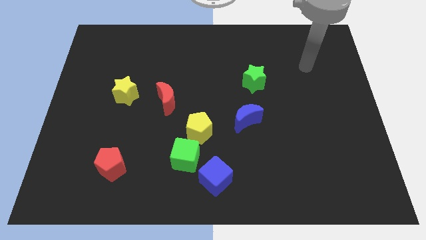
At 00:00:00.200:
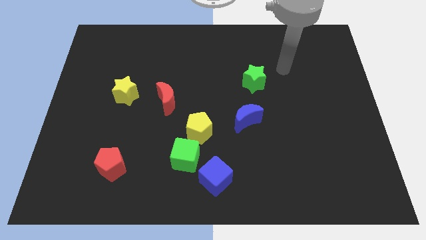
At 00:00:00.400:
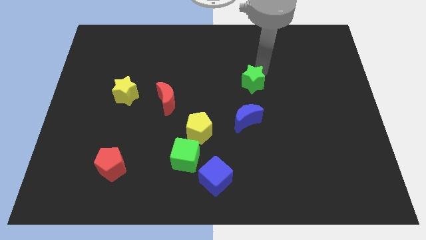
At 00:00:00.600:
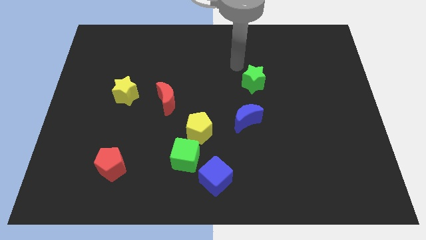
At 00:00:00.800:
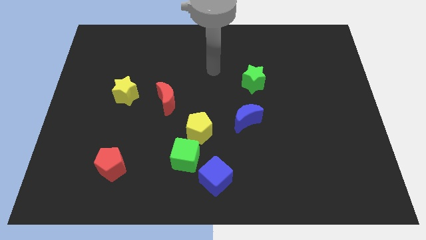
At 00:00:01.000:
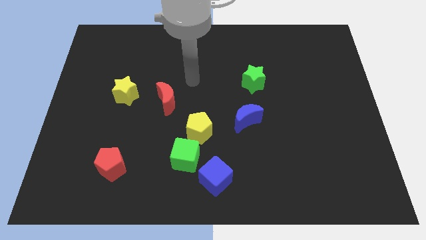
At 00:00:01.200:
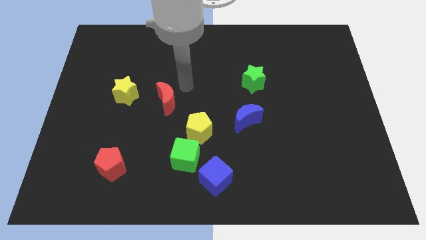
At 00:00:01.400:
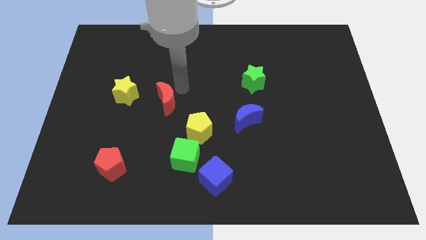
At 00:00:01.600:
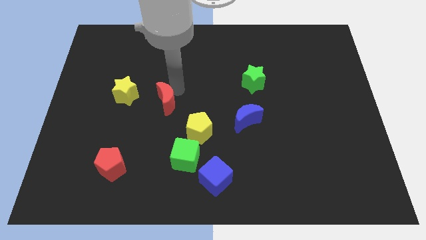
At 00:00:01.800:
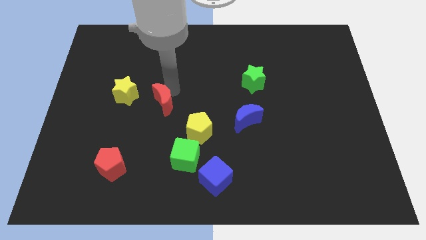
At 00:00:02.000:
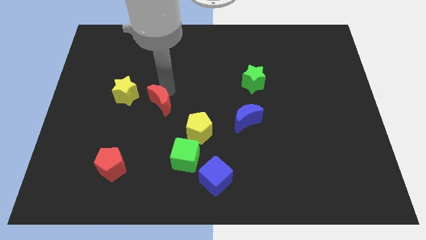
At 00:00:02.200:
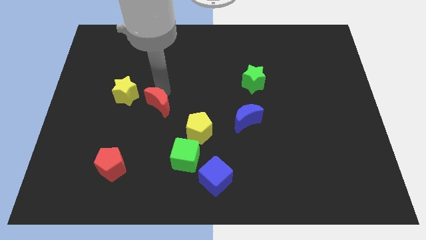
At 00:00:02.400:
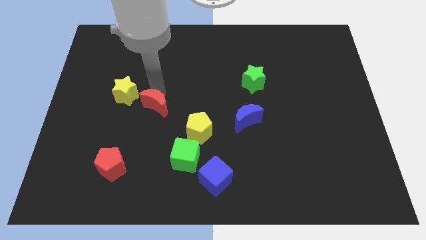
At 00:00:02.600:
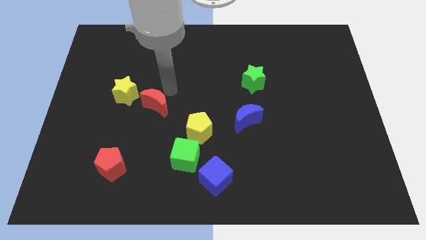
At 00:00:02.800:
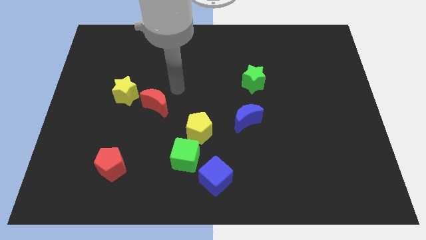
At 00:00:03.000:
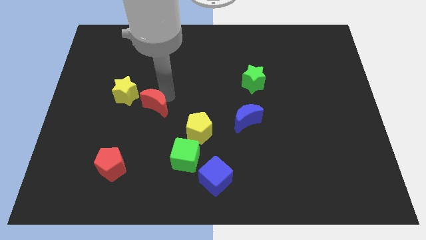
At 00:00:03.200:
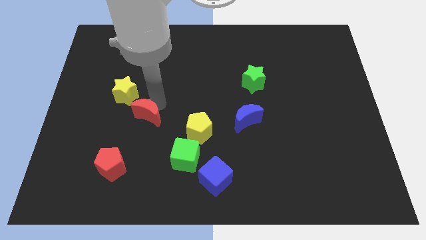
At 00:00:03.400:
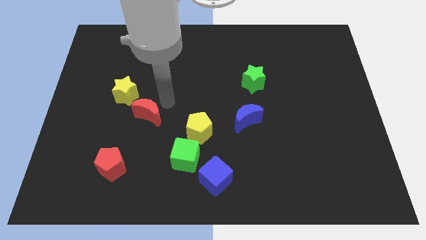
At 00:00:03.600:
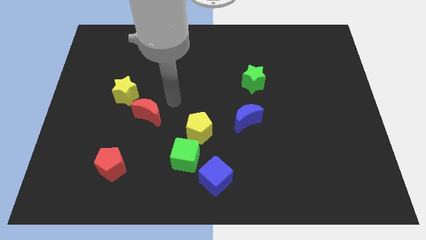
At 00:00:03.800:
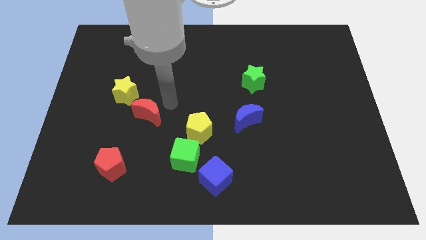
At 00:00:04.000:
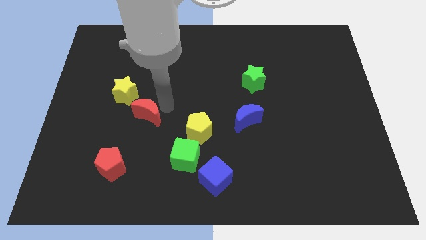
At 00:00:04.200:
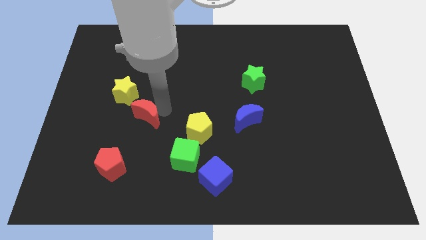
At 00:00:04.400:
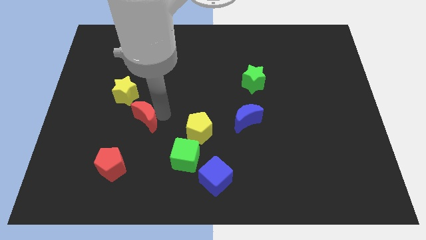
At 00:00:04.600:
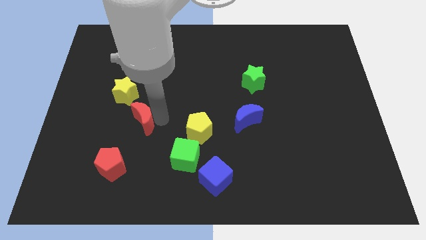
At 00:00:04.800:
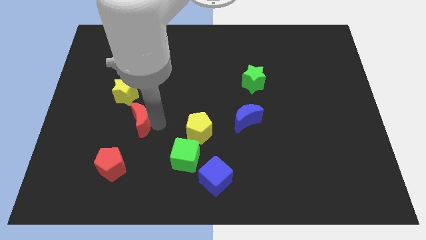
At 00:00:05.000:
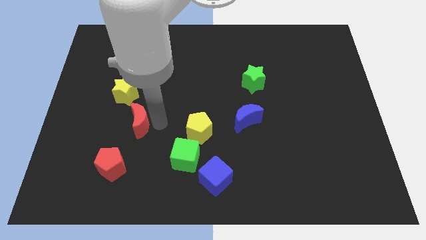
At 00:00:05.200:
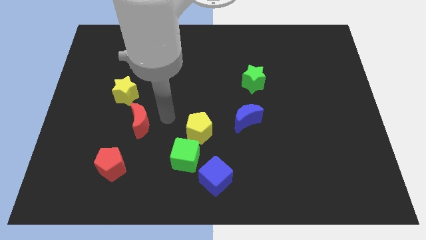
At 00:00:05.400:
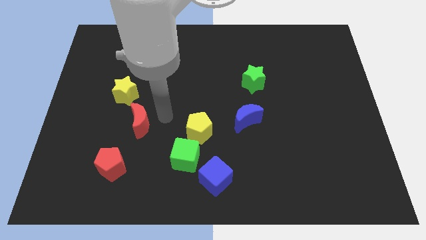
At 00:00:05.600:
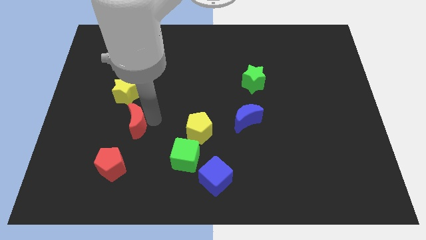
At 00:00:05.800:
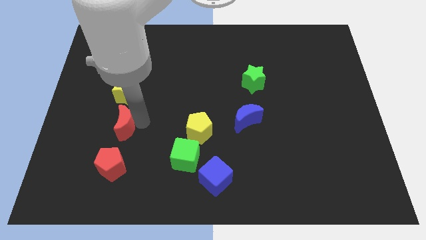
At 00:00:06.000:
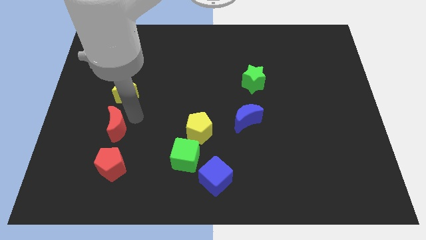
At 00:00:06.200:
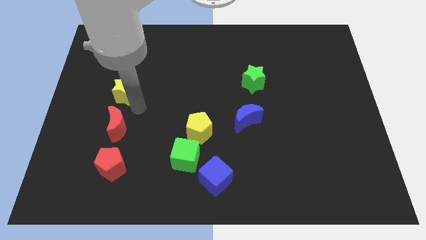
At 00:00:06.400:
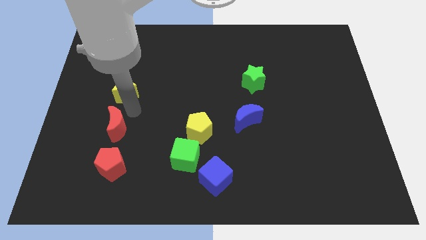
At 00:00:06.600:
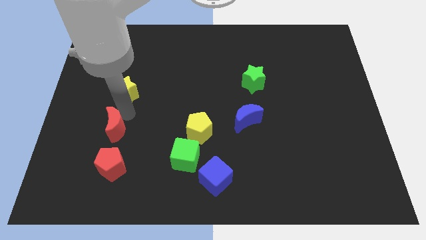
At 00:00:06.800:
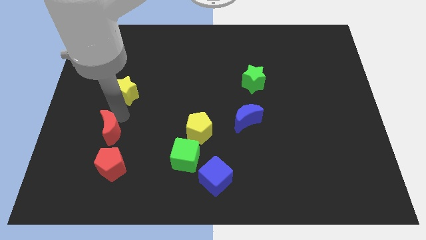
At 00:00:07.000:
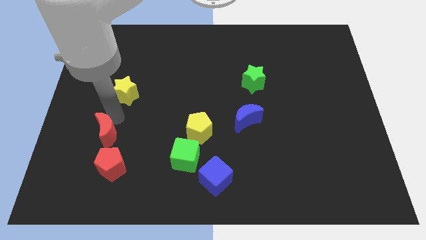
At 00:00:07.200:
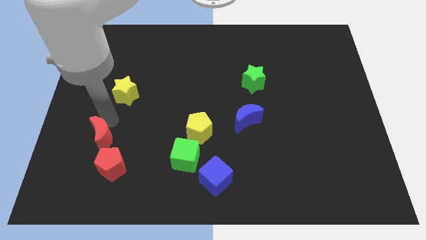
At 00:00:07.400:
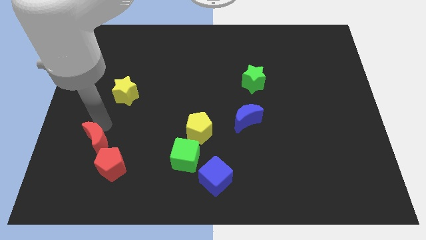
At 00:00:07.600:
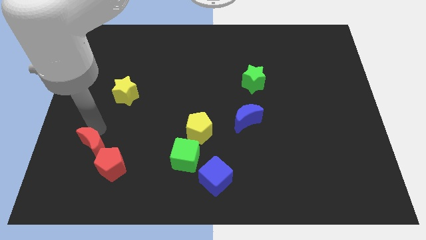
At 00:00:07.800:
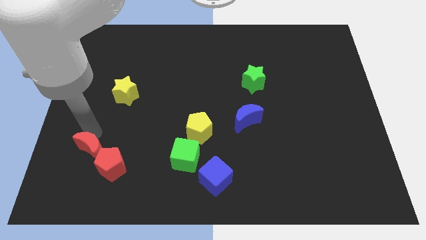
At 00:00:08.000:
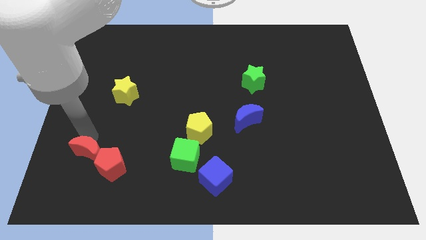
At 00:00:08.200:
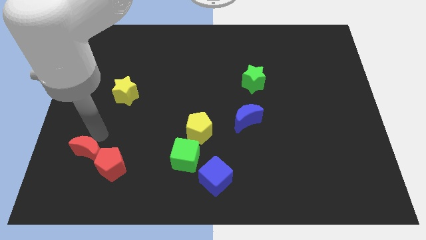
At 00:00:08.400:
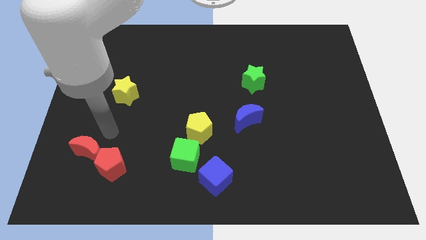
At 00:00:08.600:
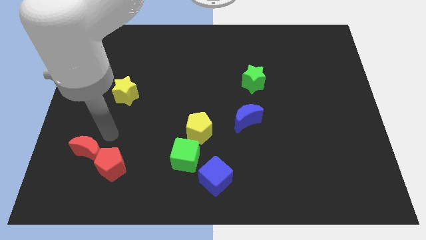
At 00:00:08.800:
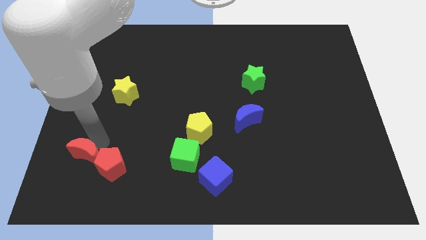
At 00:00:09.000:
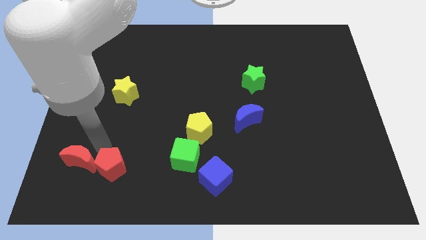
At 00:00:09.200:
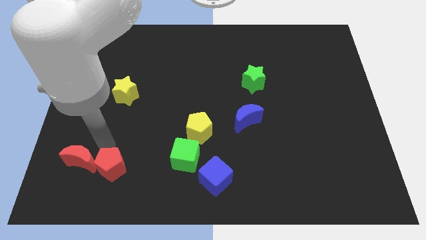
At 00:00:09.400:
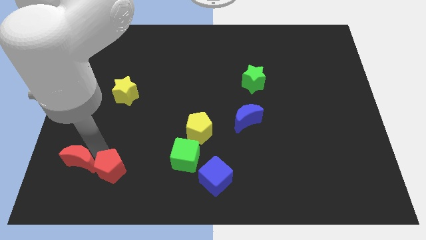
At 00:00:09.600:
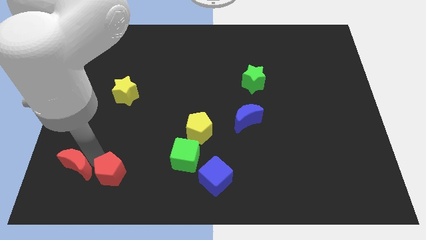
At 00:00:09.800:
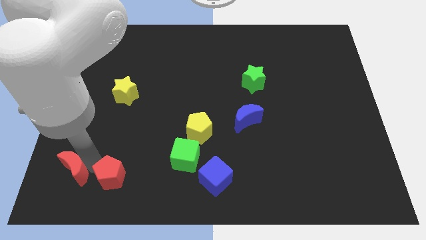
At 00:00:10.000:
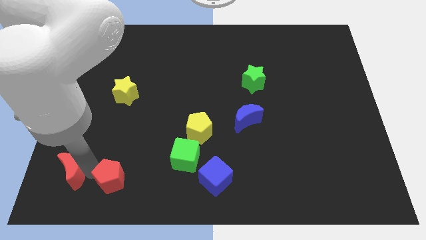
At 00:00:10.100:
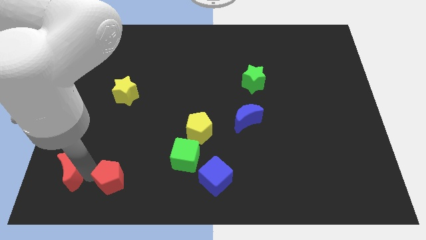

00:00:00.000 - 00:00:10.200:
put the red moon to the bottom left of the board

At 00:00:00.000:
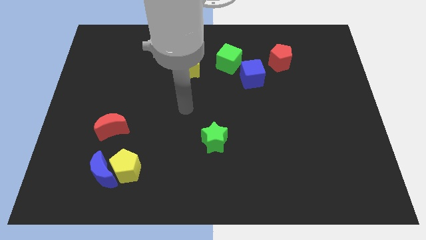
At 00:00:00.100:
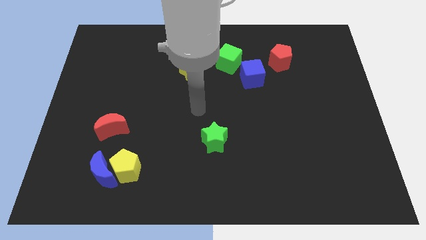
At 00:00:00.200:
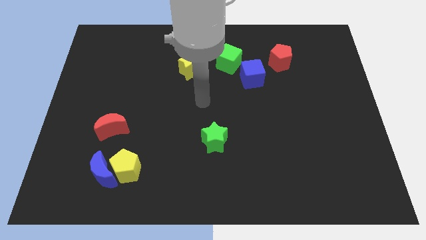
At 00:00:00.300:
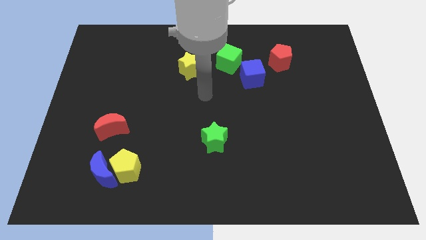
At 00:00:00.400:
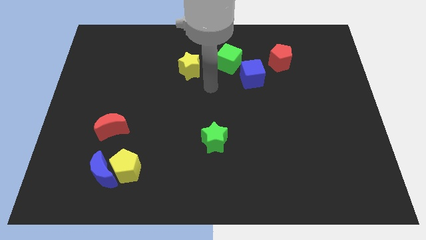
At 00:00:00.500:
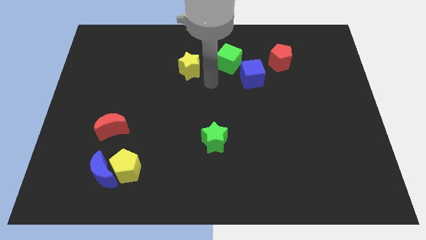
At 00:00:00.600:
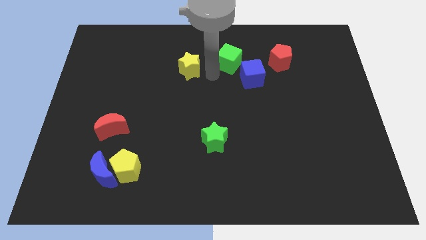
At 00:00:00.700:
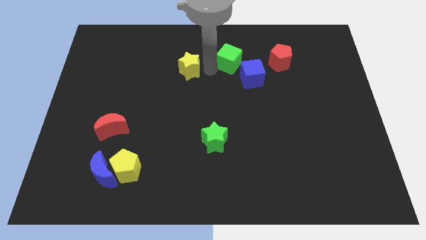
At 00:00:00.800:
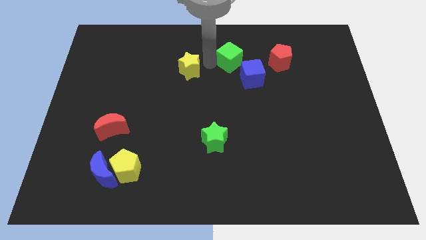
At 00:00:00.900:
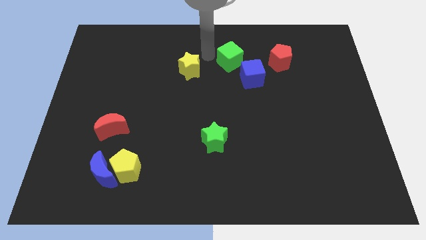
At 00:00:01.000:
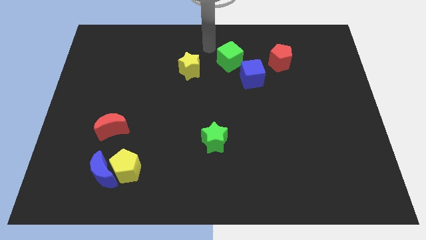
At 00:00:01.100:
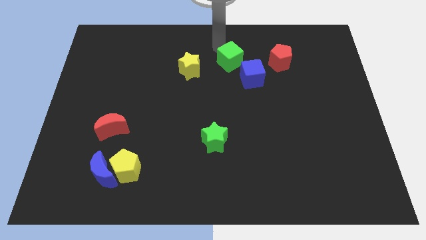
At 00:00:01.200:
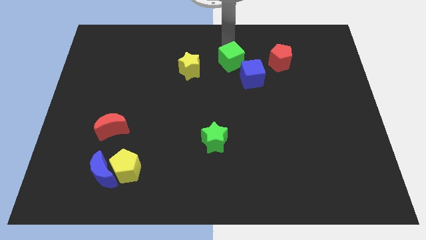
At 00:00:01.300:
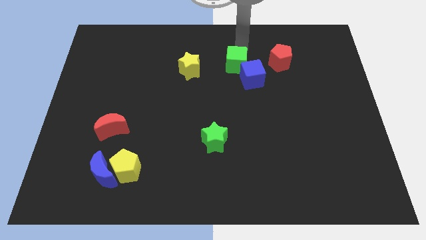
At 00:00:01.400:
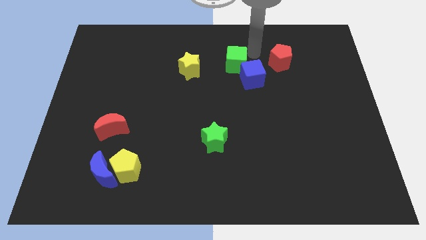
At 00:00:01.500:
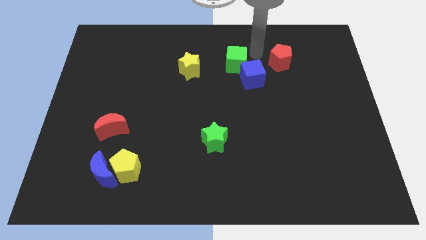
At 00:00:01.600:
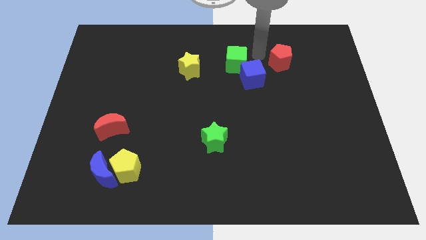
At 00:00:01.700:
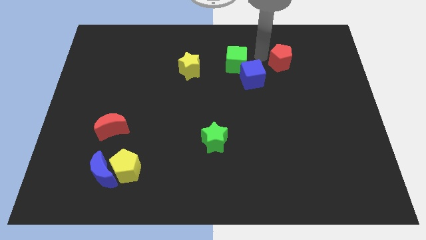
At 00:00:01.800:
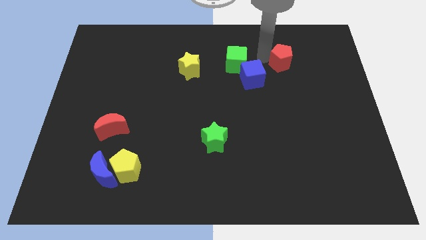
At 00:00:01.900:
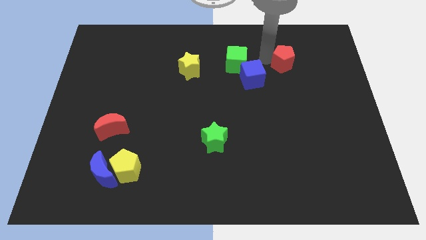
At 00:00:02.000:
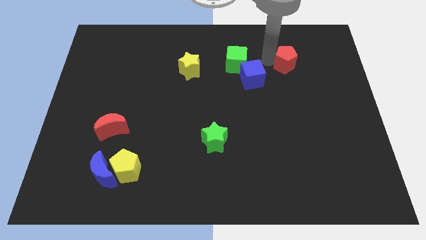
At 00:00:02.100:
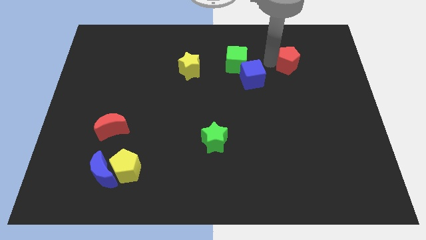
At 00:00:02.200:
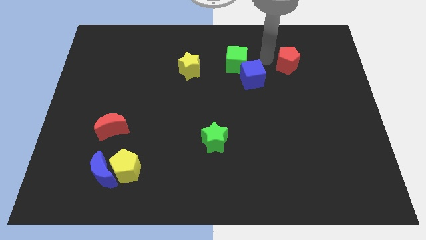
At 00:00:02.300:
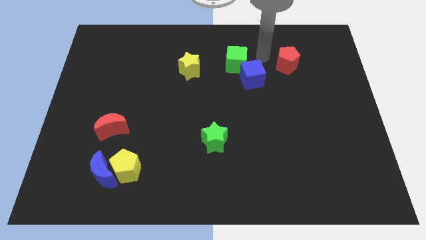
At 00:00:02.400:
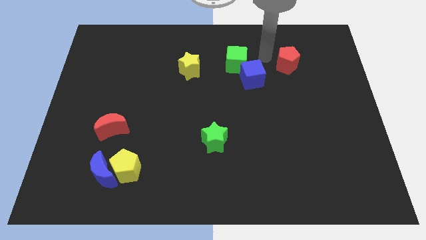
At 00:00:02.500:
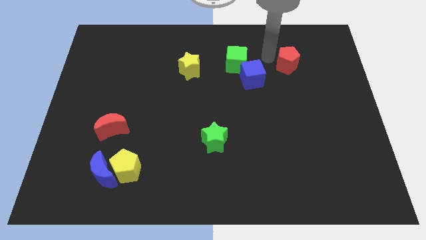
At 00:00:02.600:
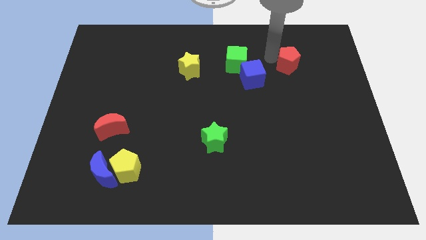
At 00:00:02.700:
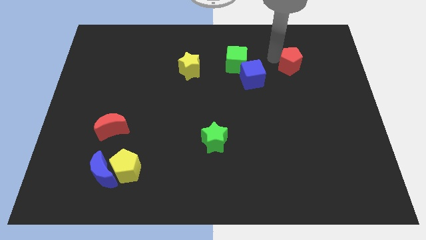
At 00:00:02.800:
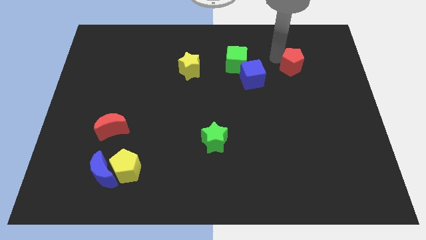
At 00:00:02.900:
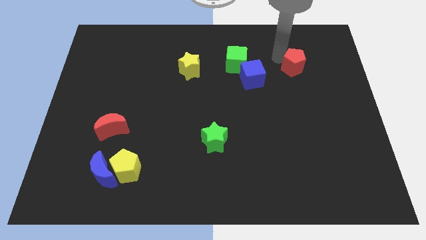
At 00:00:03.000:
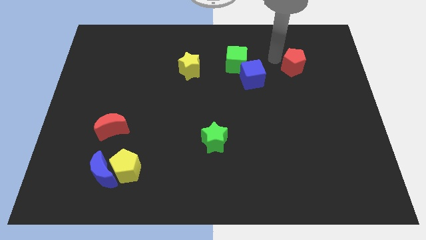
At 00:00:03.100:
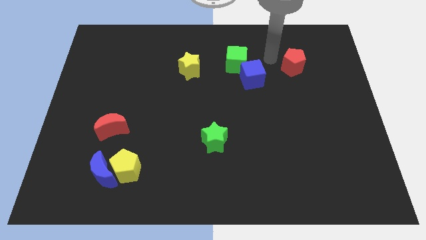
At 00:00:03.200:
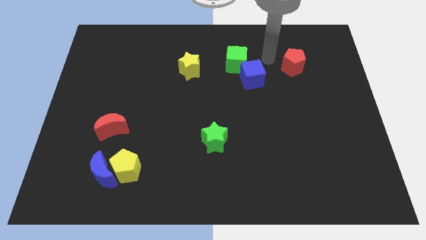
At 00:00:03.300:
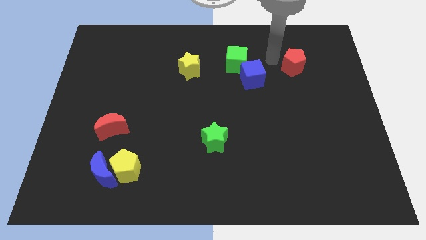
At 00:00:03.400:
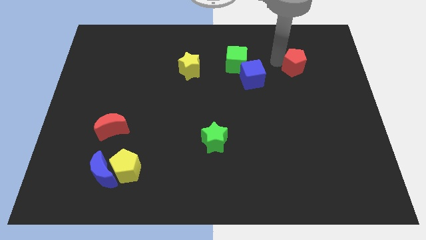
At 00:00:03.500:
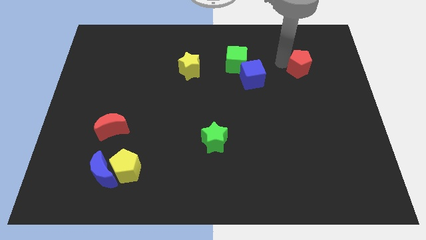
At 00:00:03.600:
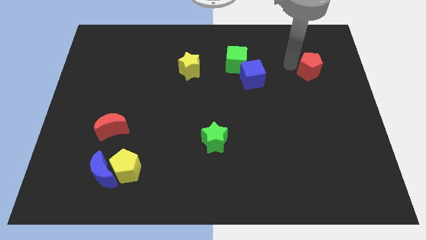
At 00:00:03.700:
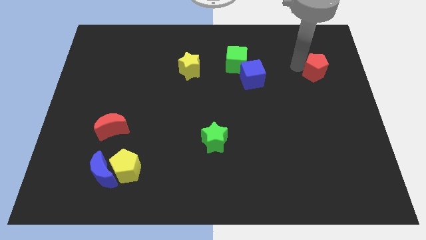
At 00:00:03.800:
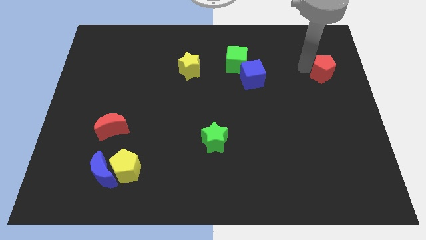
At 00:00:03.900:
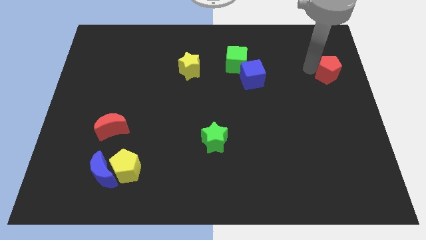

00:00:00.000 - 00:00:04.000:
slide the red pentagon to the right side of the board
